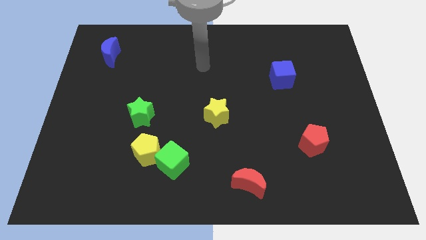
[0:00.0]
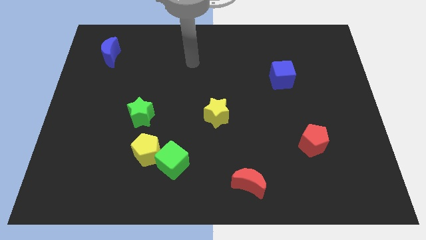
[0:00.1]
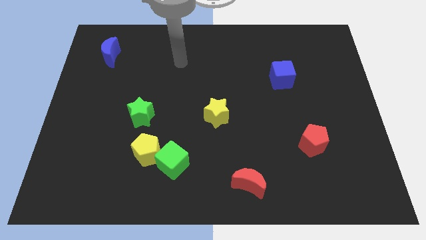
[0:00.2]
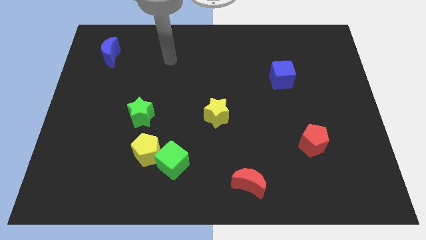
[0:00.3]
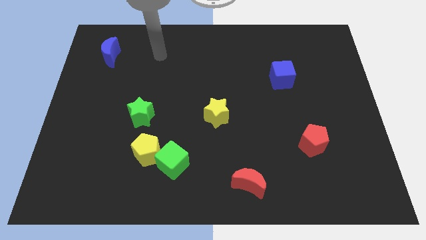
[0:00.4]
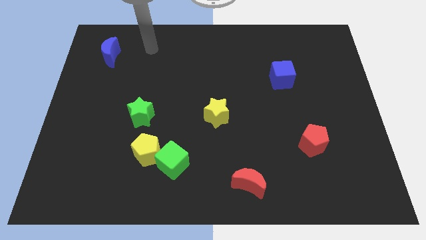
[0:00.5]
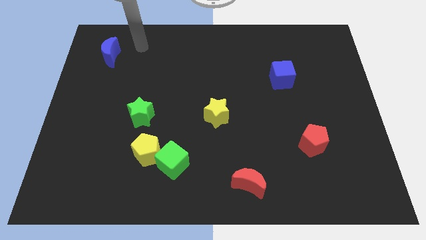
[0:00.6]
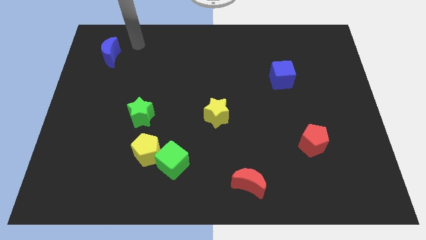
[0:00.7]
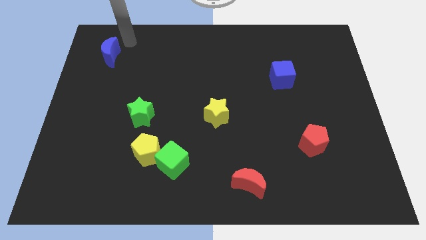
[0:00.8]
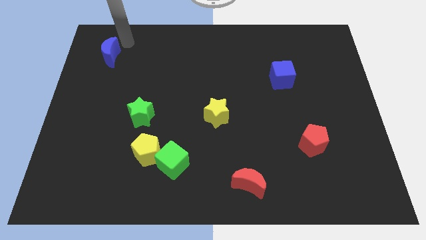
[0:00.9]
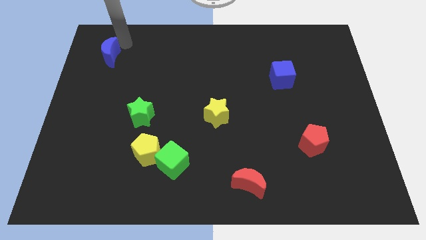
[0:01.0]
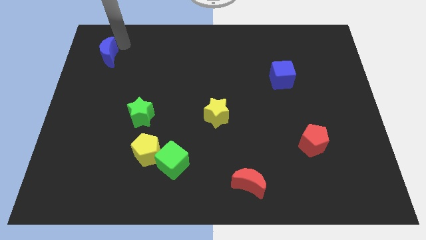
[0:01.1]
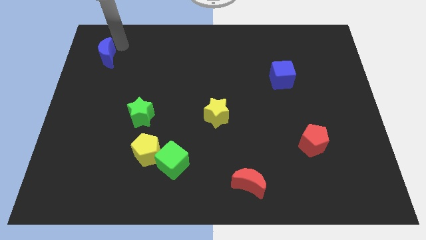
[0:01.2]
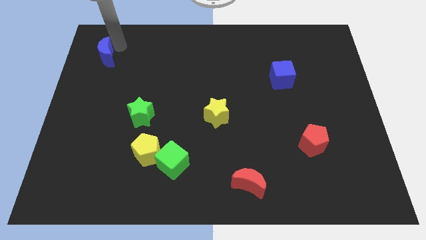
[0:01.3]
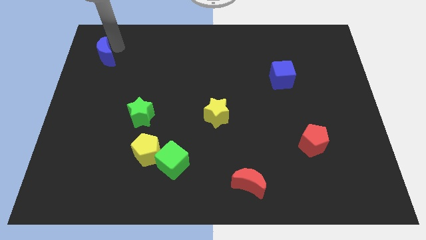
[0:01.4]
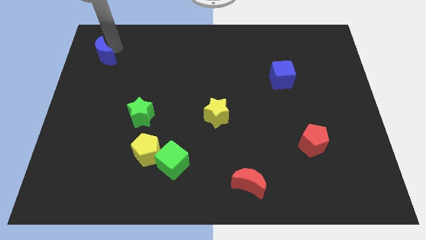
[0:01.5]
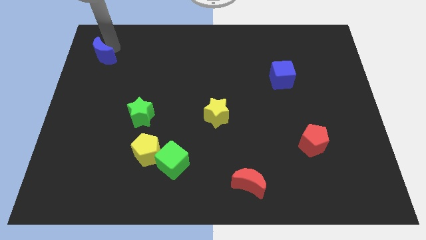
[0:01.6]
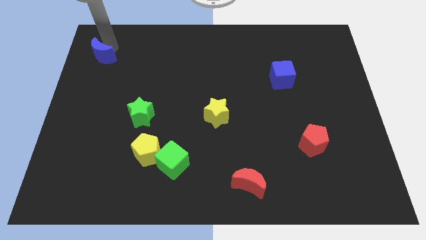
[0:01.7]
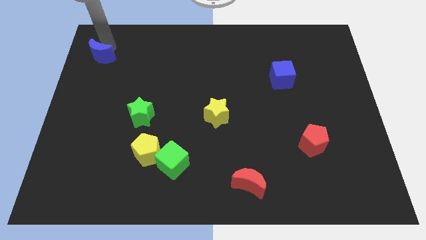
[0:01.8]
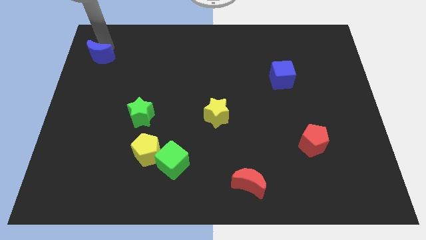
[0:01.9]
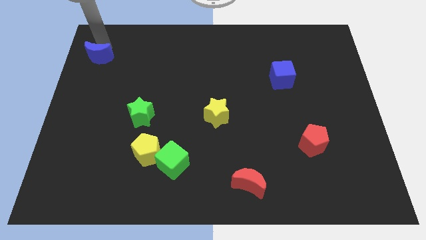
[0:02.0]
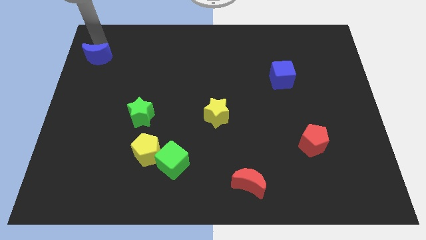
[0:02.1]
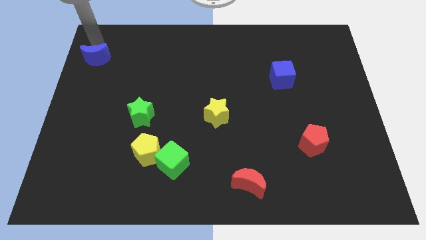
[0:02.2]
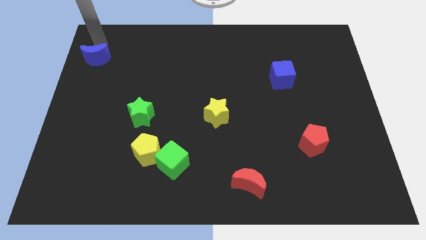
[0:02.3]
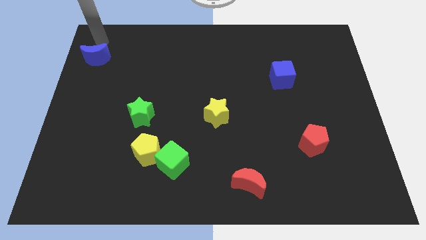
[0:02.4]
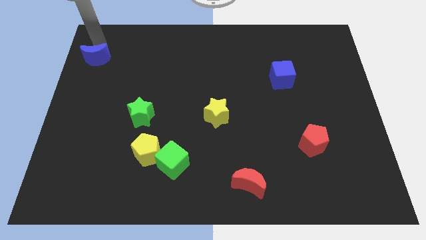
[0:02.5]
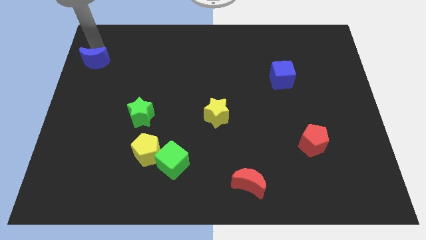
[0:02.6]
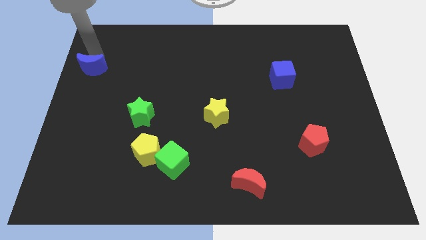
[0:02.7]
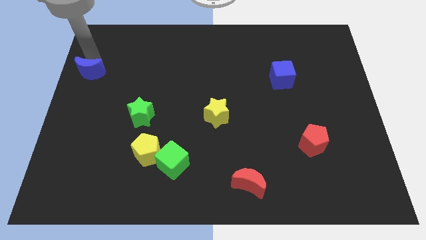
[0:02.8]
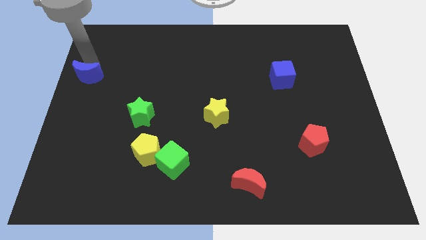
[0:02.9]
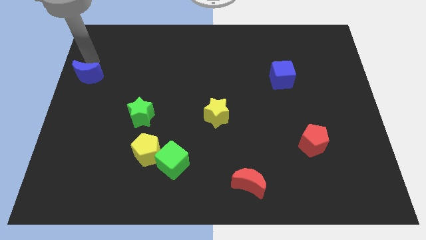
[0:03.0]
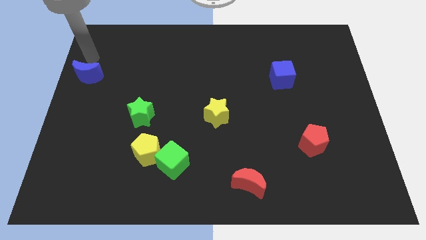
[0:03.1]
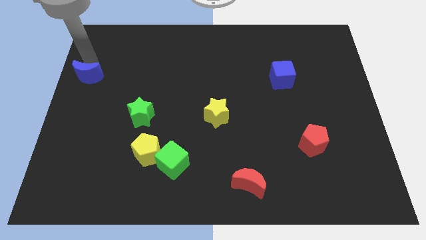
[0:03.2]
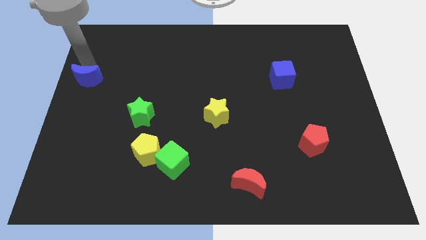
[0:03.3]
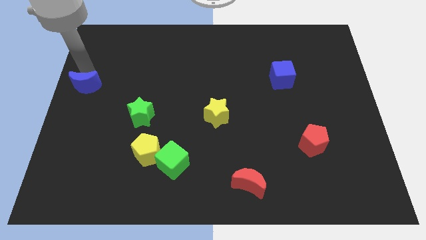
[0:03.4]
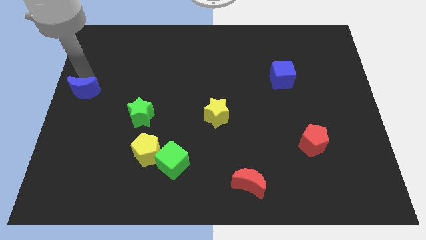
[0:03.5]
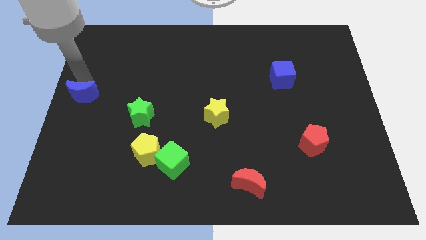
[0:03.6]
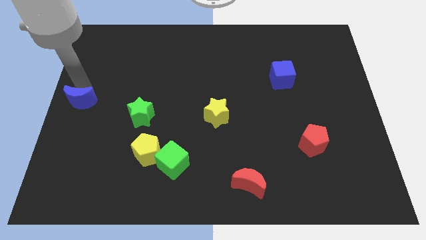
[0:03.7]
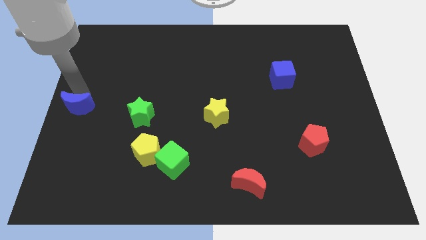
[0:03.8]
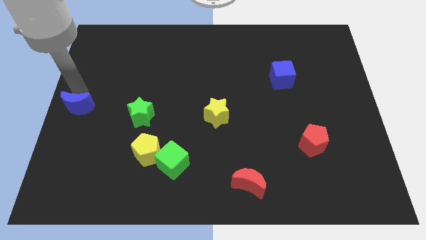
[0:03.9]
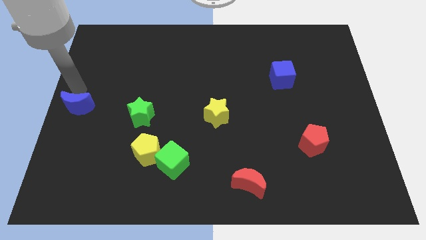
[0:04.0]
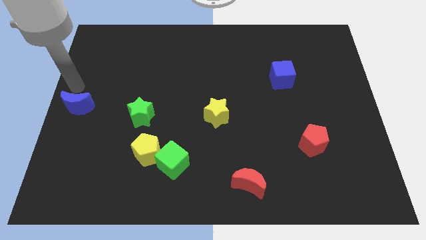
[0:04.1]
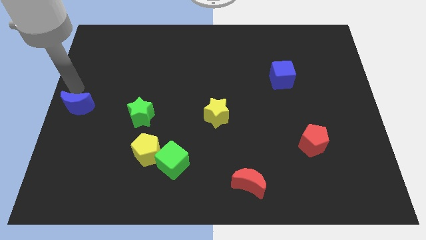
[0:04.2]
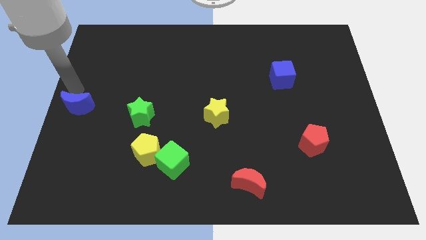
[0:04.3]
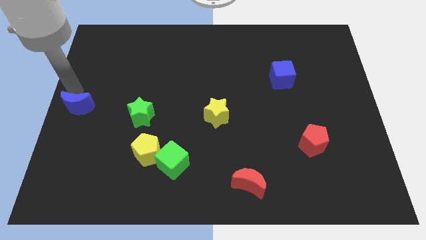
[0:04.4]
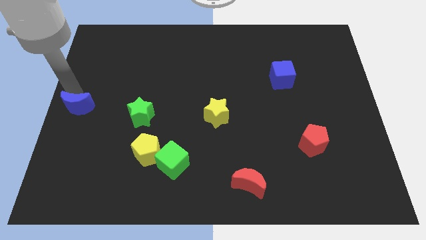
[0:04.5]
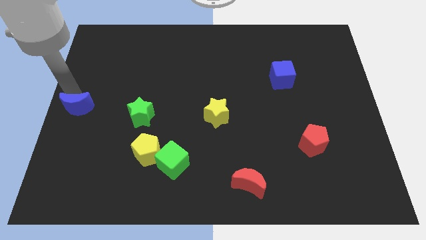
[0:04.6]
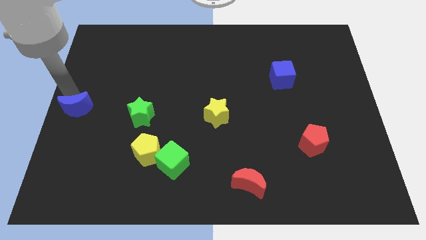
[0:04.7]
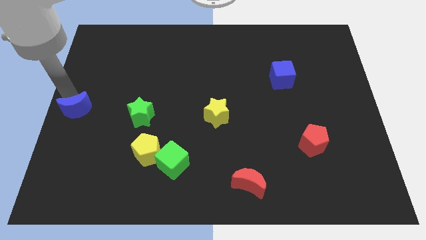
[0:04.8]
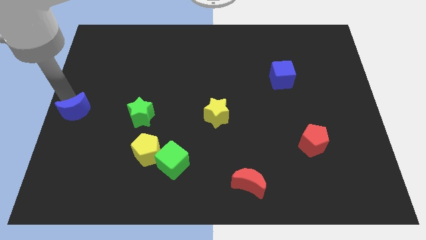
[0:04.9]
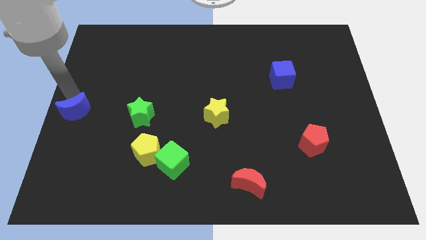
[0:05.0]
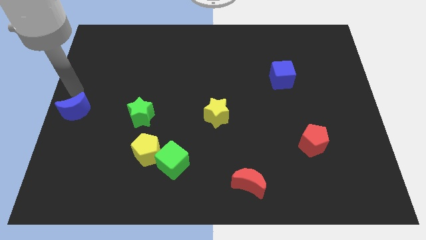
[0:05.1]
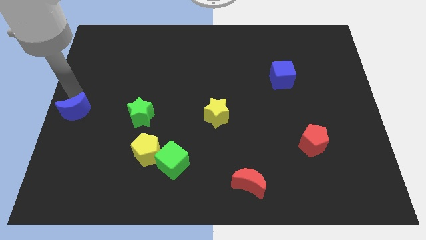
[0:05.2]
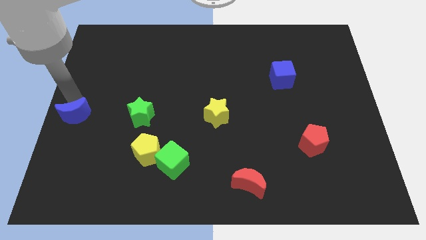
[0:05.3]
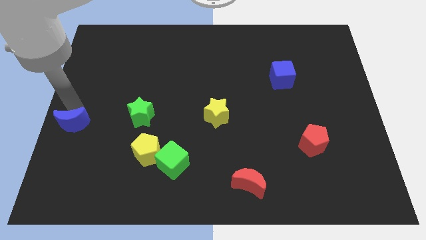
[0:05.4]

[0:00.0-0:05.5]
slide the blue moon downwards

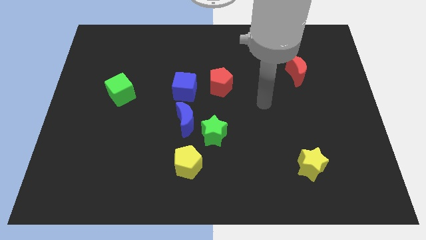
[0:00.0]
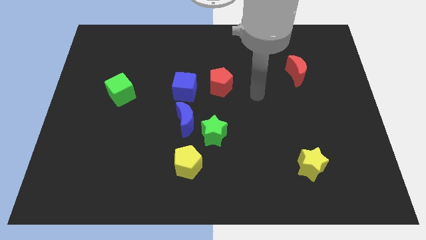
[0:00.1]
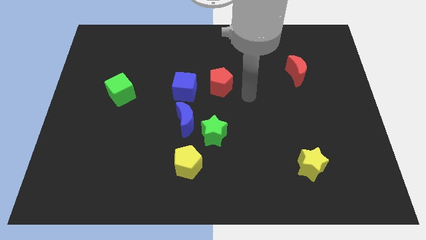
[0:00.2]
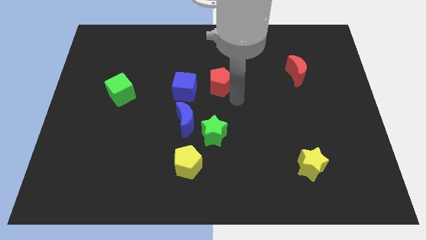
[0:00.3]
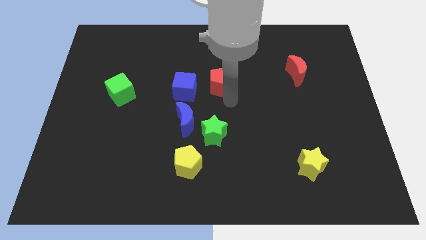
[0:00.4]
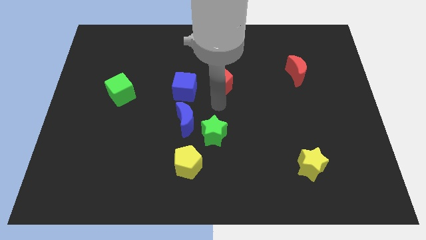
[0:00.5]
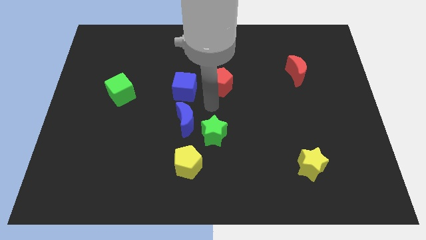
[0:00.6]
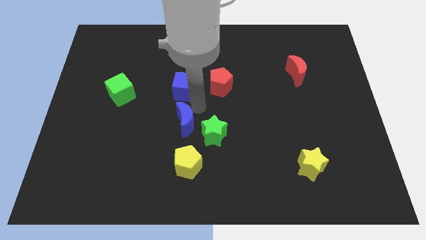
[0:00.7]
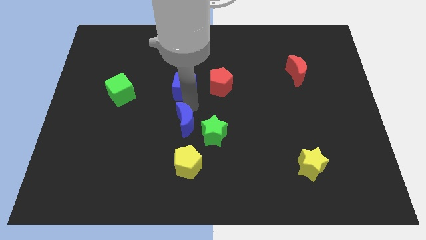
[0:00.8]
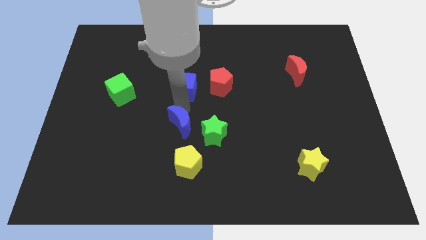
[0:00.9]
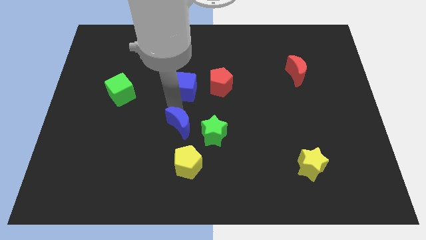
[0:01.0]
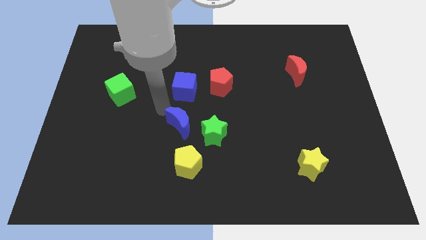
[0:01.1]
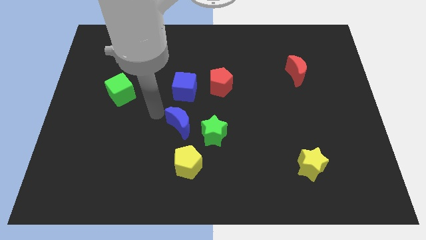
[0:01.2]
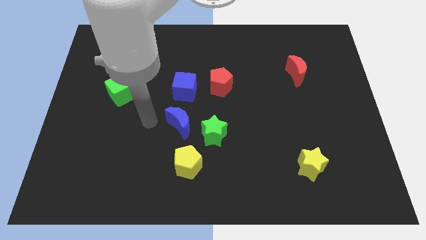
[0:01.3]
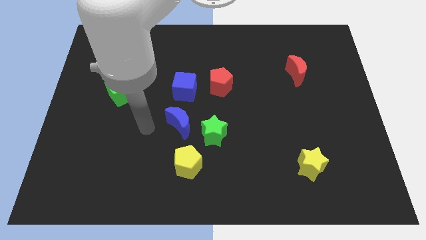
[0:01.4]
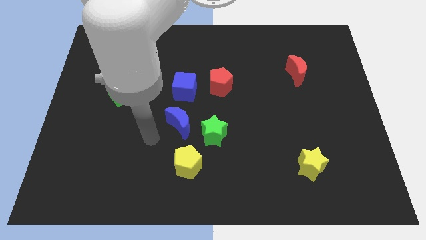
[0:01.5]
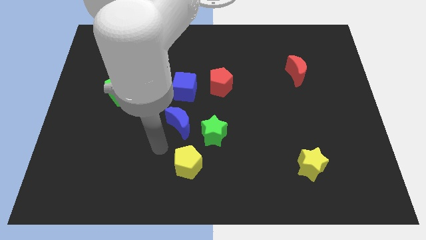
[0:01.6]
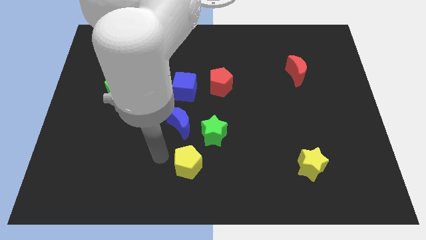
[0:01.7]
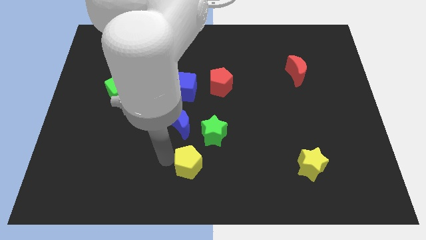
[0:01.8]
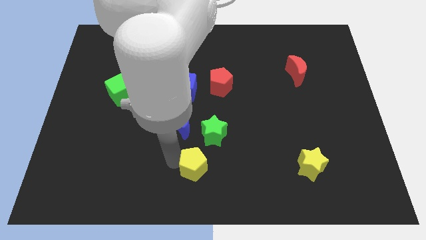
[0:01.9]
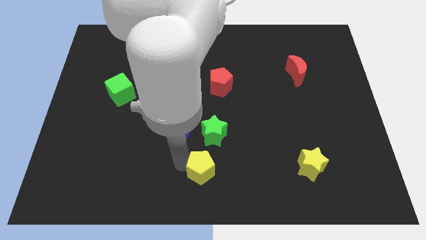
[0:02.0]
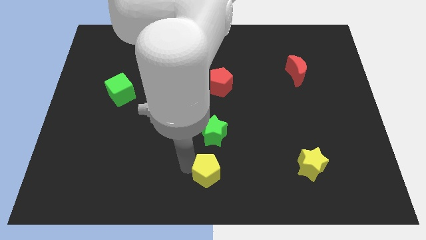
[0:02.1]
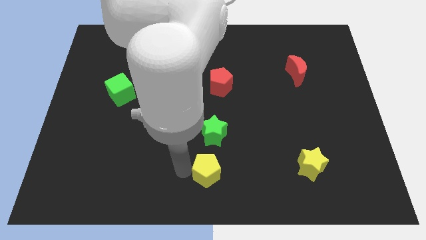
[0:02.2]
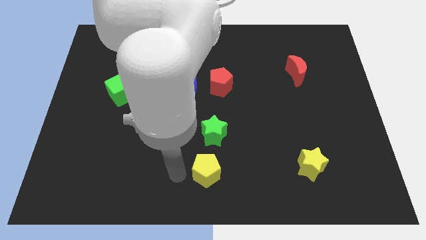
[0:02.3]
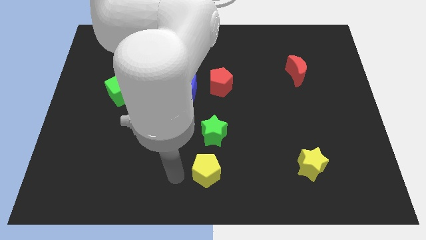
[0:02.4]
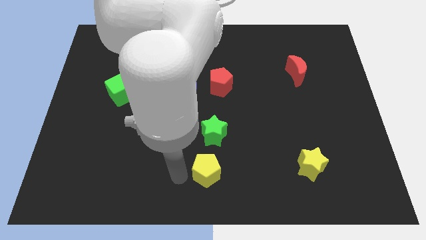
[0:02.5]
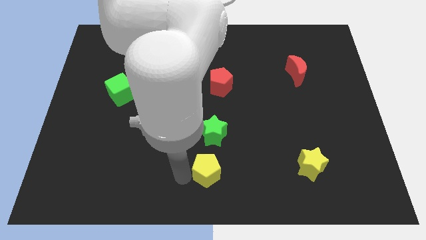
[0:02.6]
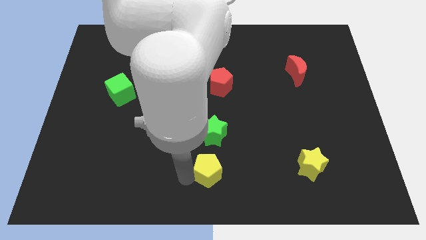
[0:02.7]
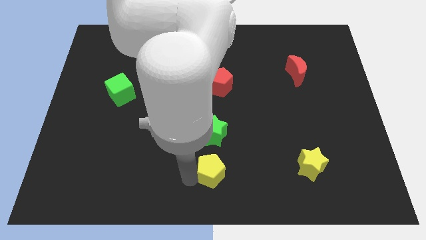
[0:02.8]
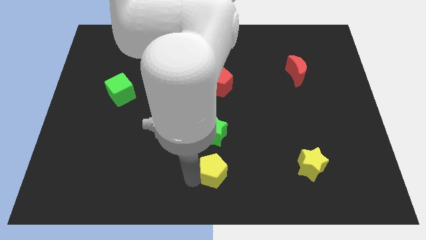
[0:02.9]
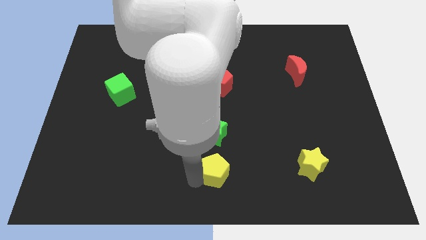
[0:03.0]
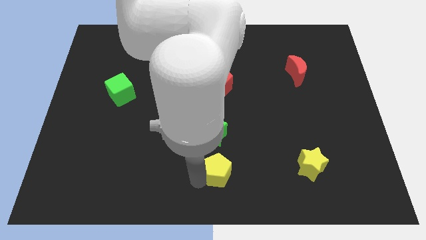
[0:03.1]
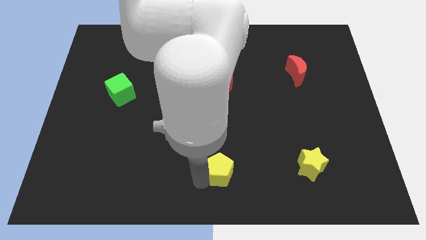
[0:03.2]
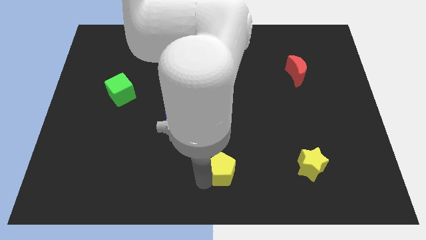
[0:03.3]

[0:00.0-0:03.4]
move the yellow pentagon a bit to the right
